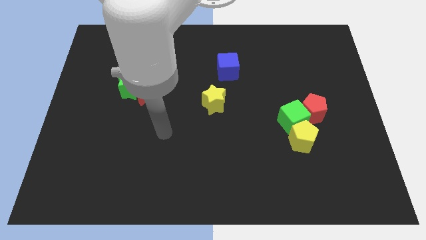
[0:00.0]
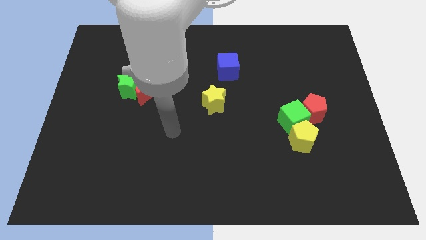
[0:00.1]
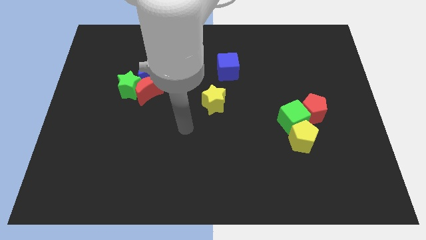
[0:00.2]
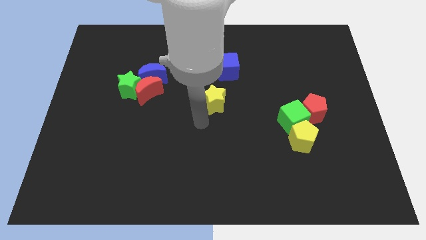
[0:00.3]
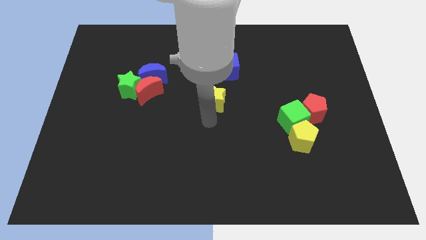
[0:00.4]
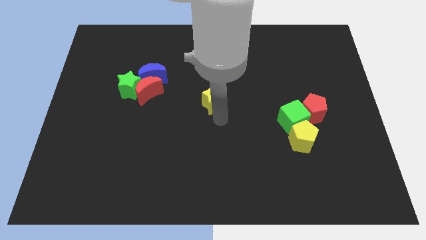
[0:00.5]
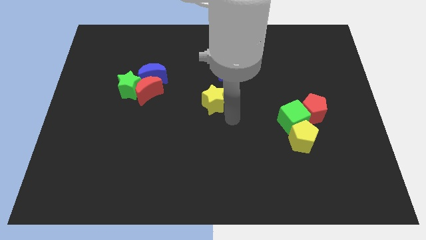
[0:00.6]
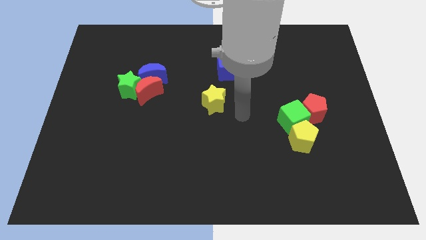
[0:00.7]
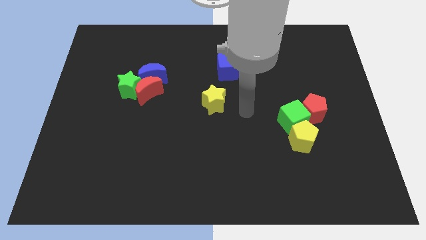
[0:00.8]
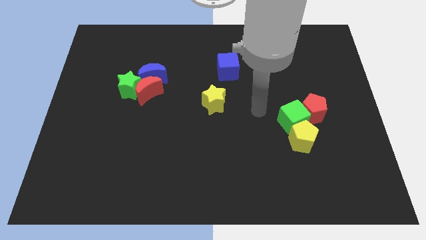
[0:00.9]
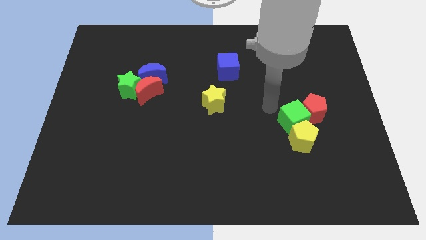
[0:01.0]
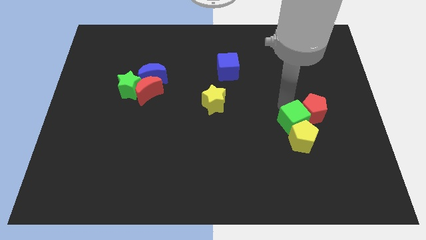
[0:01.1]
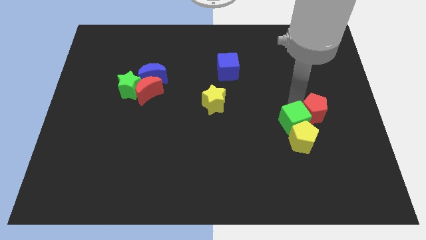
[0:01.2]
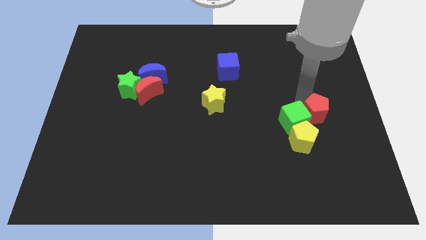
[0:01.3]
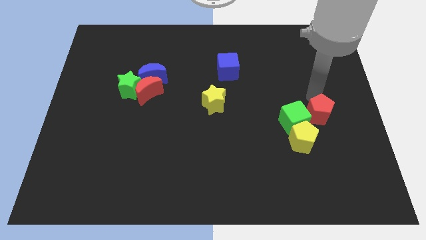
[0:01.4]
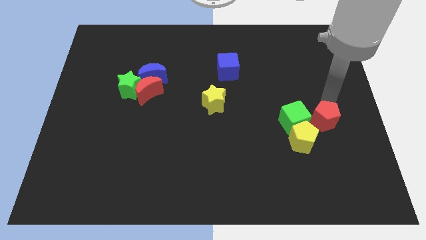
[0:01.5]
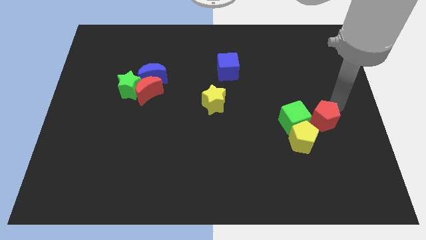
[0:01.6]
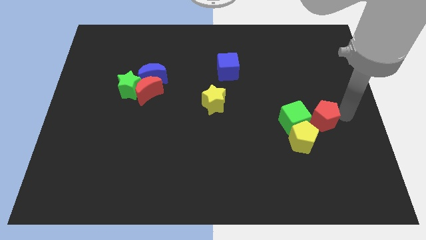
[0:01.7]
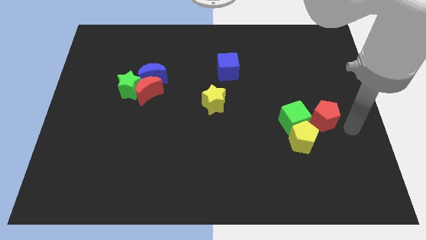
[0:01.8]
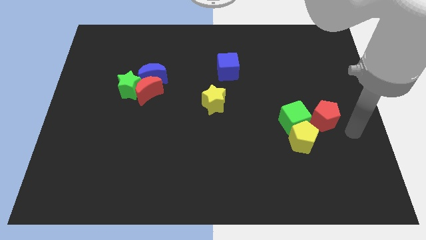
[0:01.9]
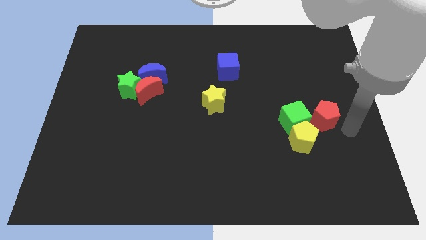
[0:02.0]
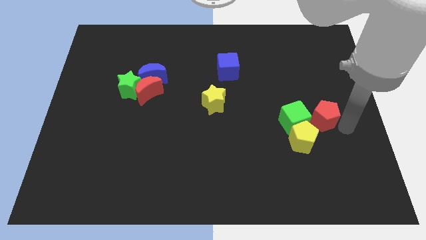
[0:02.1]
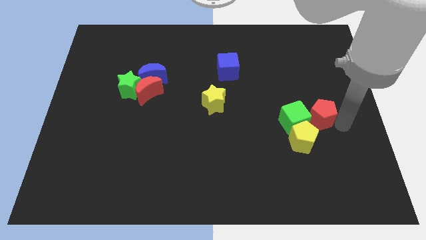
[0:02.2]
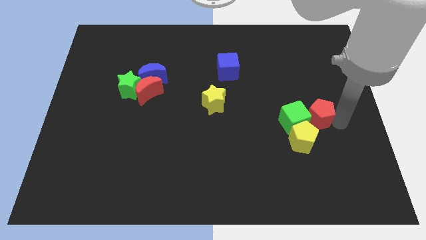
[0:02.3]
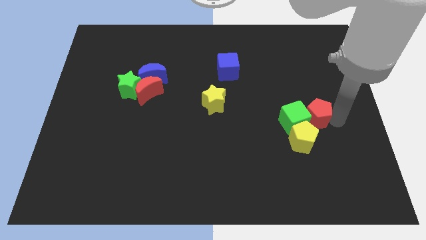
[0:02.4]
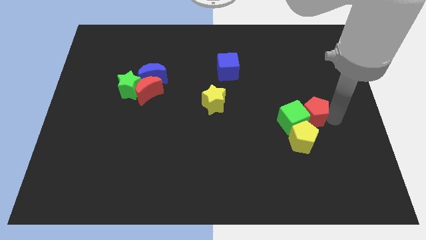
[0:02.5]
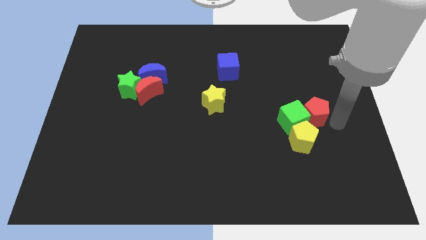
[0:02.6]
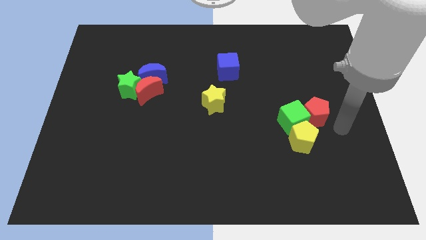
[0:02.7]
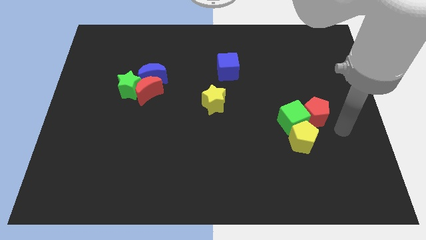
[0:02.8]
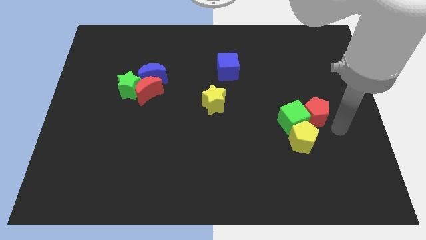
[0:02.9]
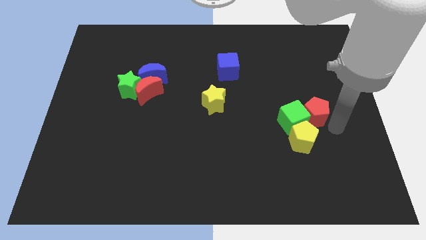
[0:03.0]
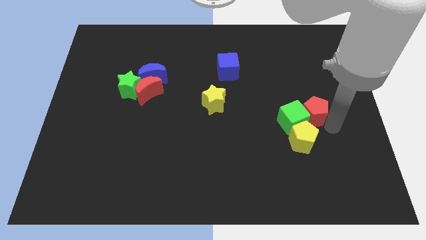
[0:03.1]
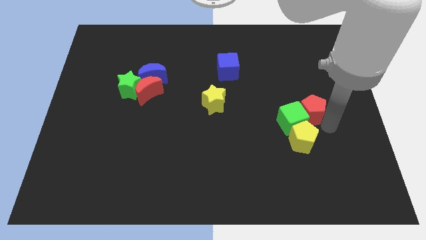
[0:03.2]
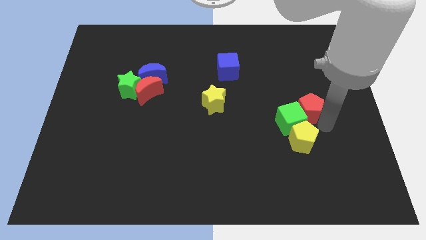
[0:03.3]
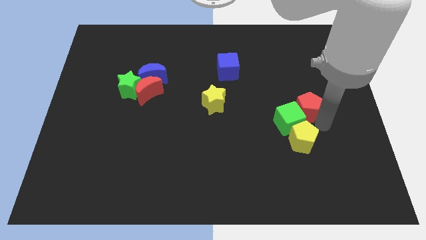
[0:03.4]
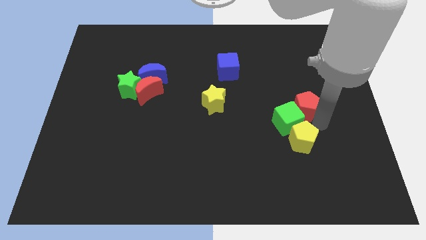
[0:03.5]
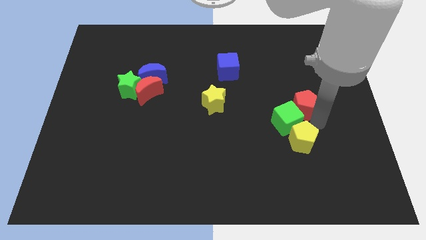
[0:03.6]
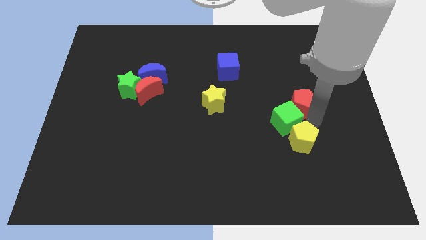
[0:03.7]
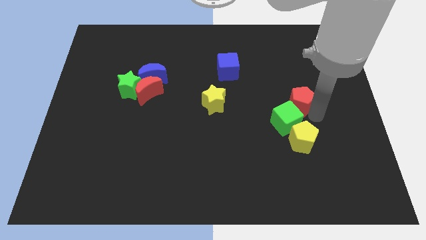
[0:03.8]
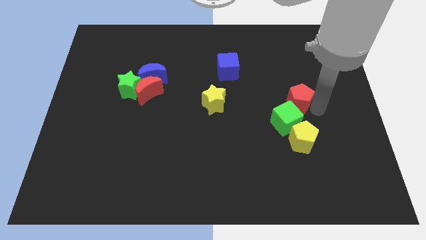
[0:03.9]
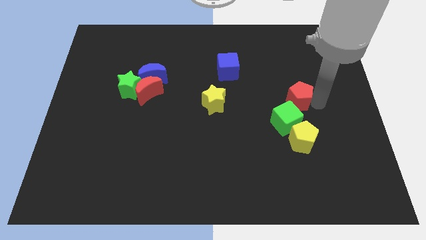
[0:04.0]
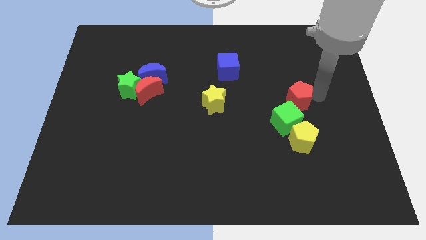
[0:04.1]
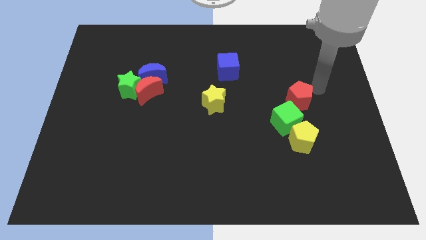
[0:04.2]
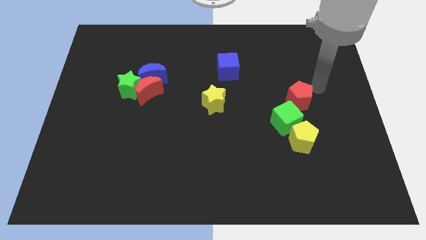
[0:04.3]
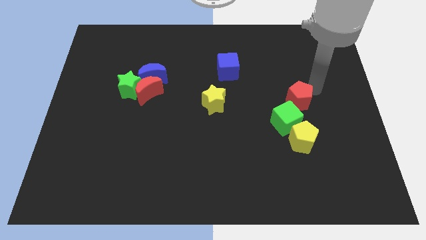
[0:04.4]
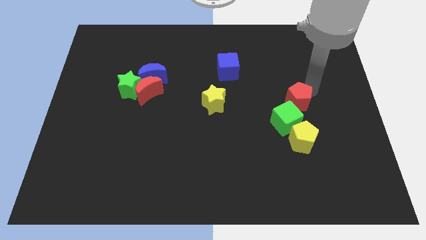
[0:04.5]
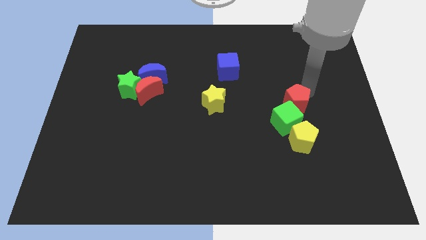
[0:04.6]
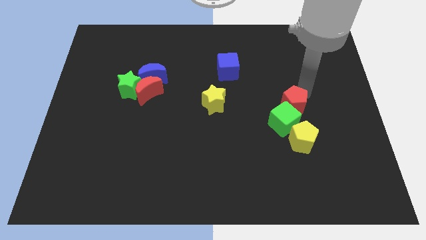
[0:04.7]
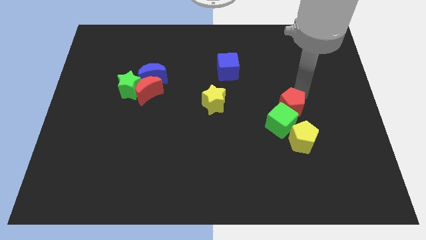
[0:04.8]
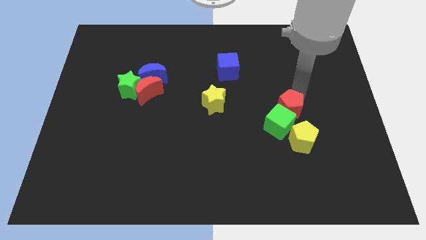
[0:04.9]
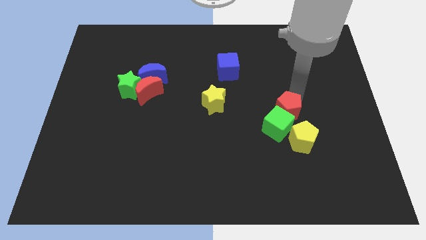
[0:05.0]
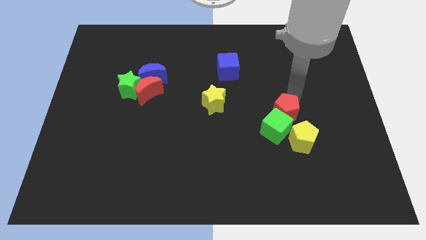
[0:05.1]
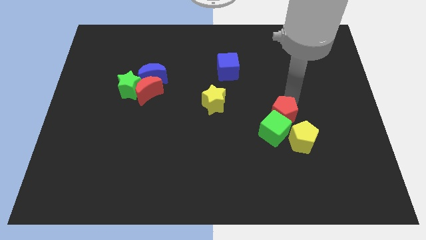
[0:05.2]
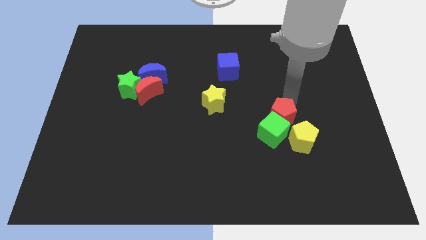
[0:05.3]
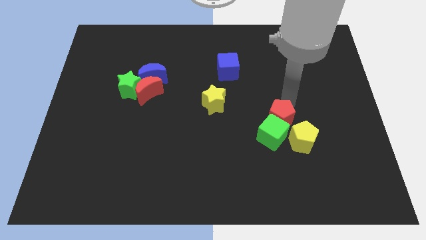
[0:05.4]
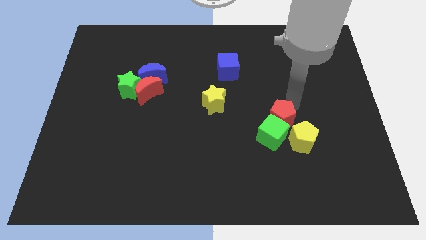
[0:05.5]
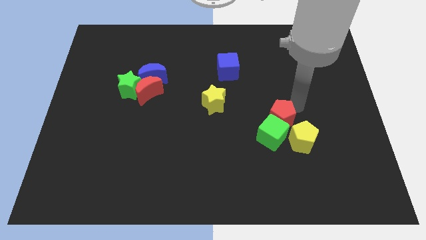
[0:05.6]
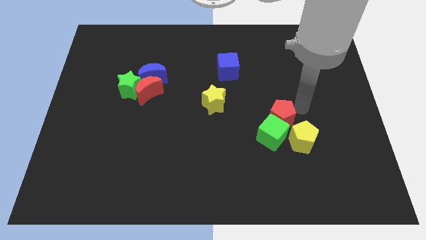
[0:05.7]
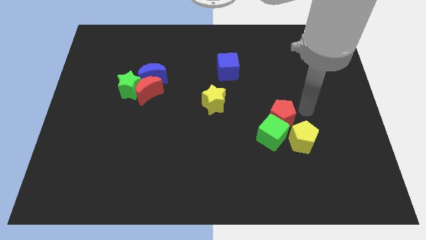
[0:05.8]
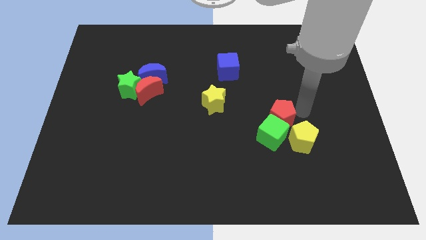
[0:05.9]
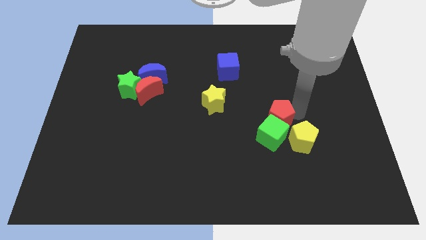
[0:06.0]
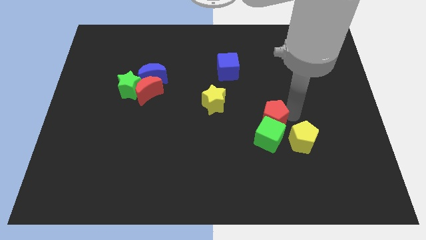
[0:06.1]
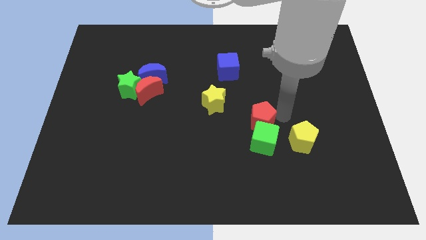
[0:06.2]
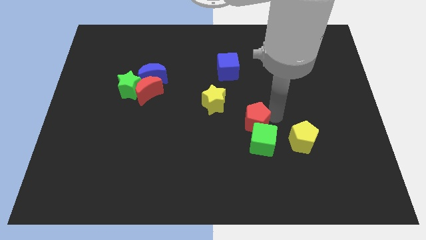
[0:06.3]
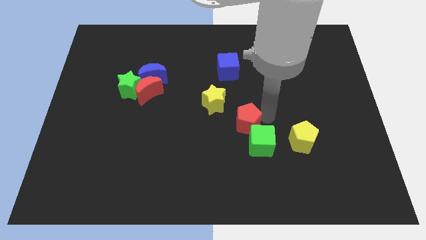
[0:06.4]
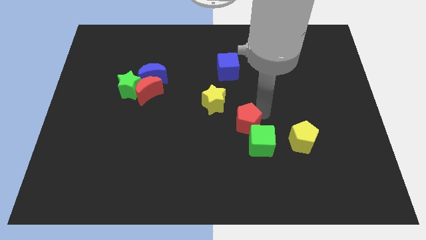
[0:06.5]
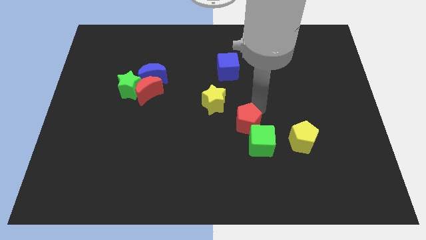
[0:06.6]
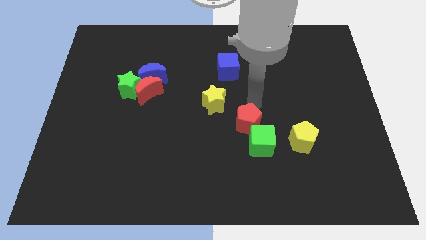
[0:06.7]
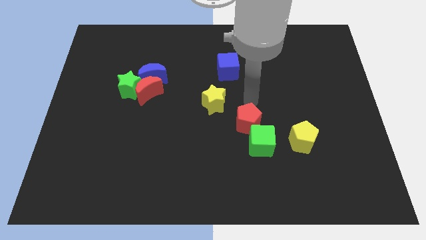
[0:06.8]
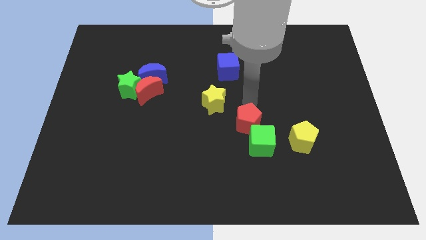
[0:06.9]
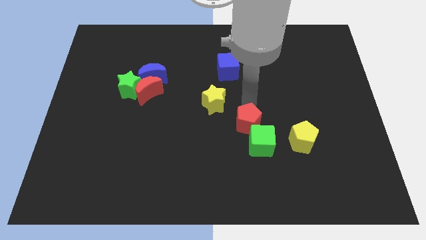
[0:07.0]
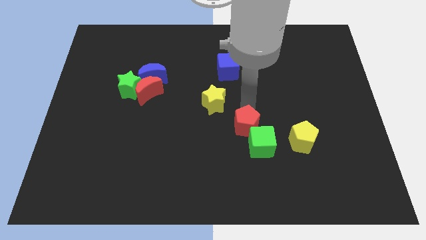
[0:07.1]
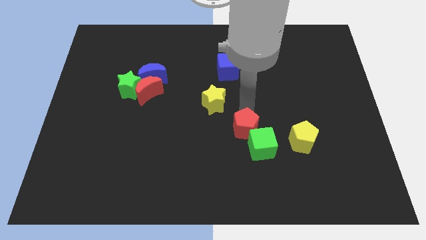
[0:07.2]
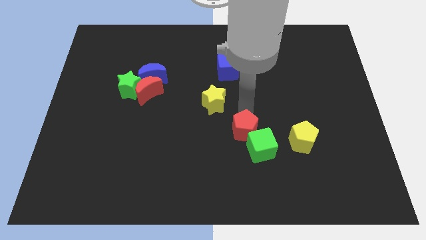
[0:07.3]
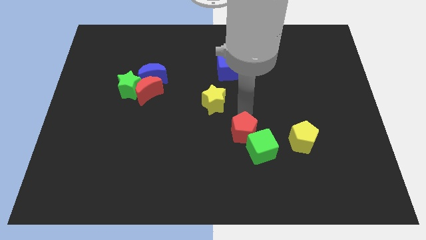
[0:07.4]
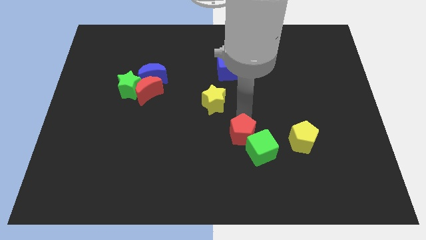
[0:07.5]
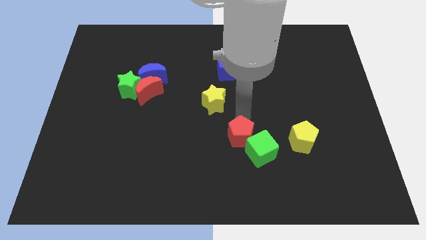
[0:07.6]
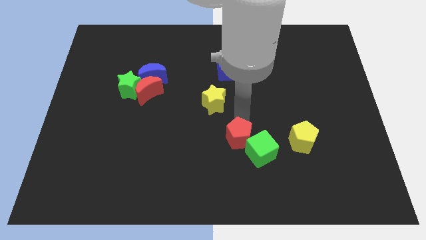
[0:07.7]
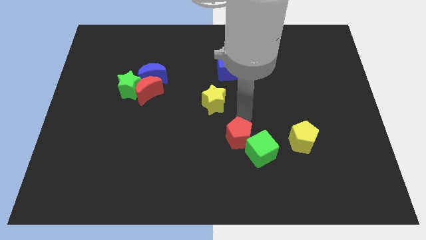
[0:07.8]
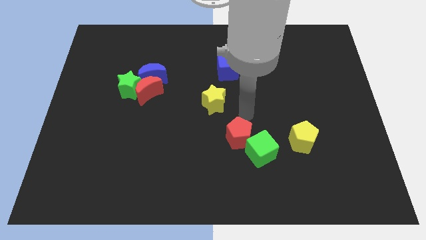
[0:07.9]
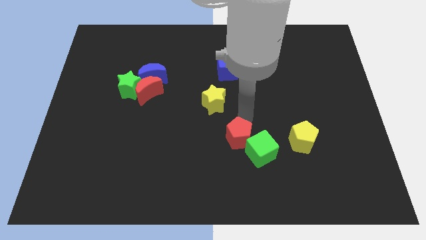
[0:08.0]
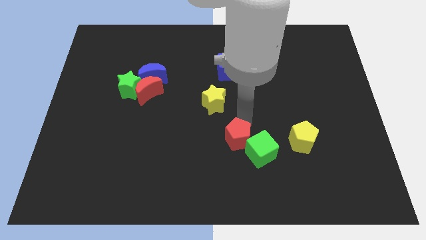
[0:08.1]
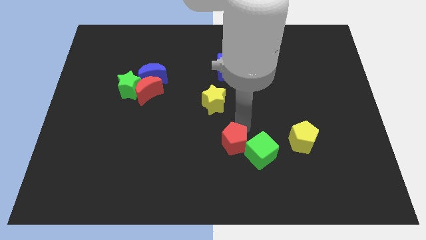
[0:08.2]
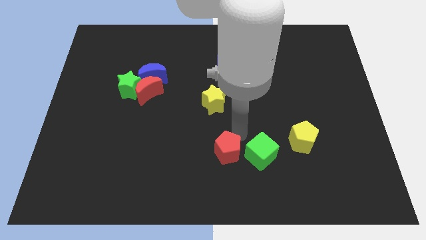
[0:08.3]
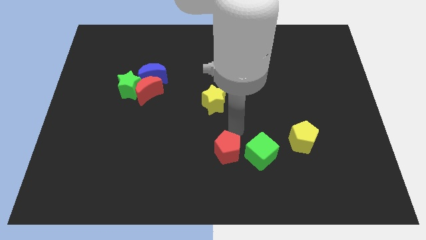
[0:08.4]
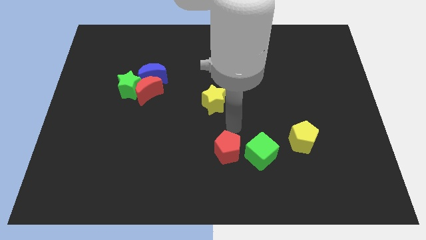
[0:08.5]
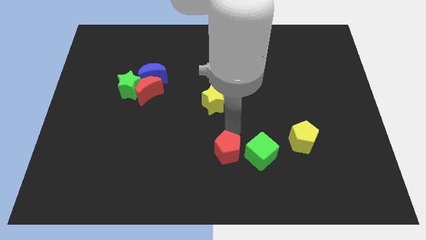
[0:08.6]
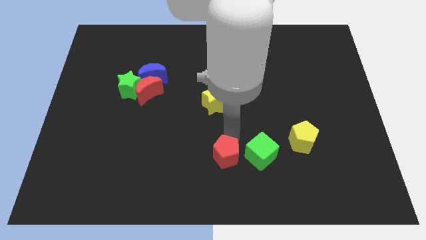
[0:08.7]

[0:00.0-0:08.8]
slide the red pentagon to the bottom side
